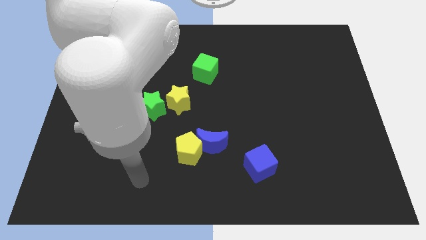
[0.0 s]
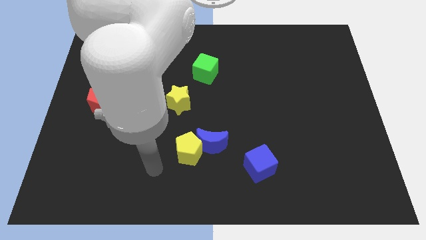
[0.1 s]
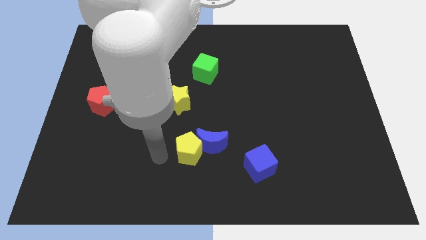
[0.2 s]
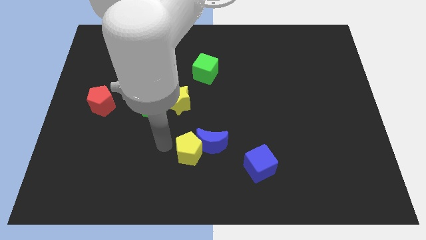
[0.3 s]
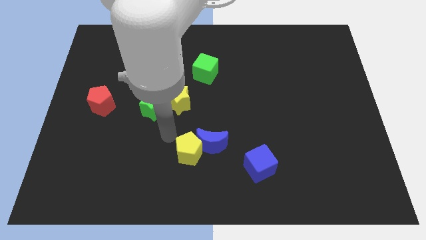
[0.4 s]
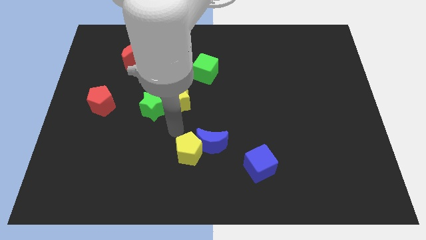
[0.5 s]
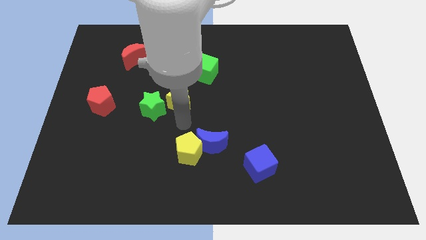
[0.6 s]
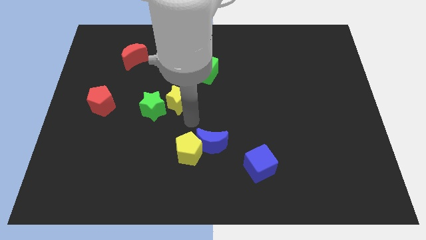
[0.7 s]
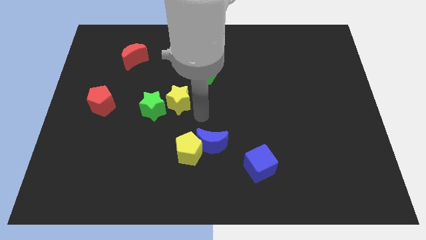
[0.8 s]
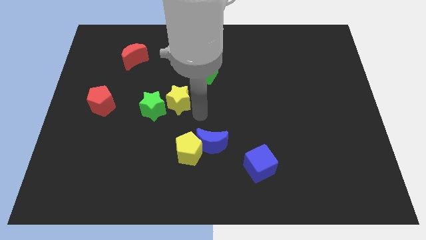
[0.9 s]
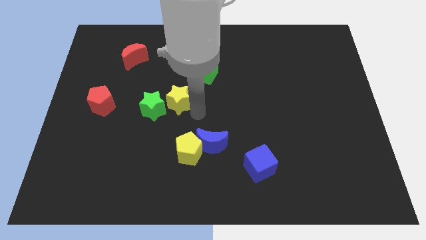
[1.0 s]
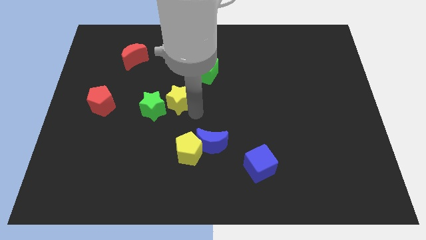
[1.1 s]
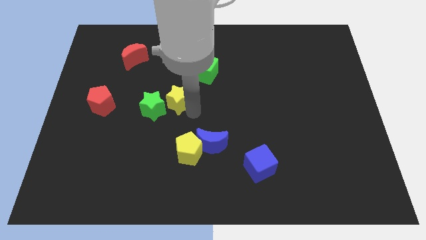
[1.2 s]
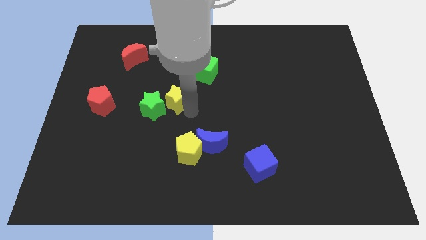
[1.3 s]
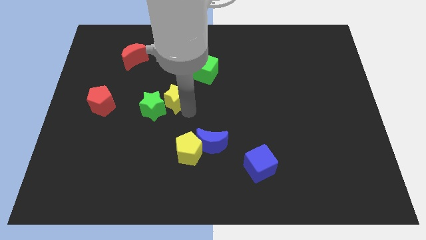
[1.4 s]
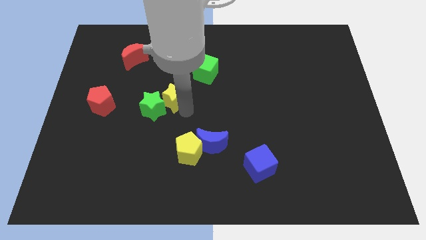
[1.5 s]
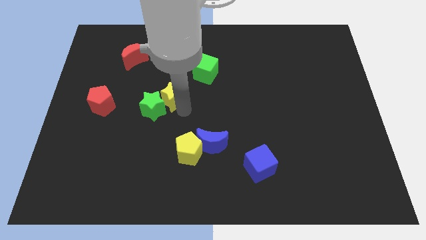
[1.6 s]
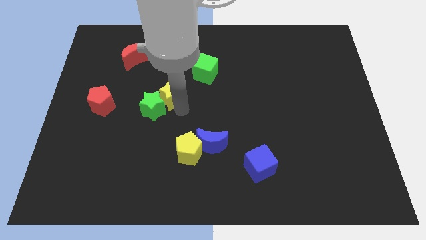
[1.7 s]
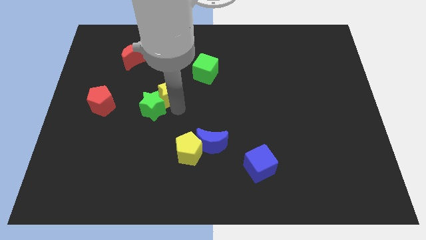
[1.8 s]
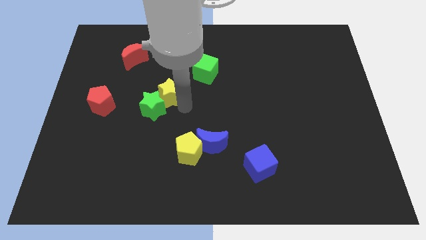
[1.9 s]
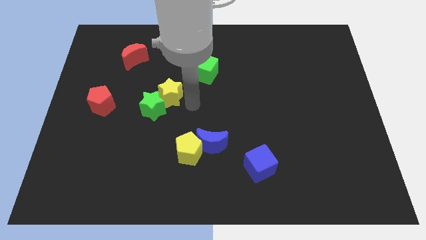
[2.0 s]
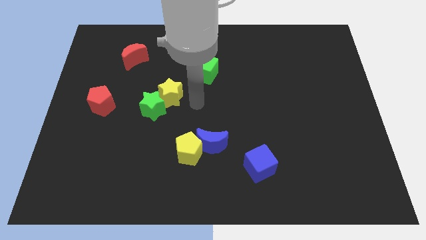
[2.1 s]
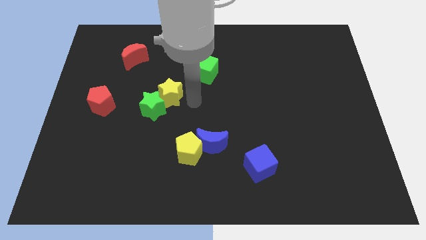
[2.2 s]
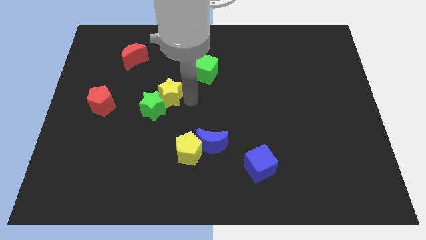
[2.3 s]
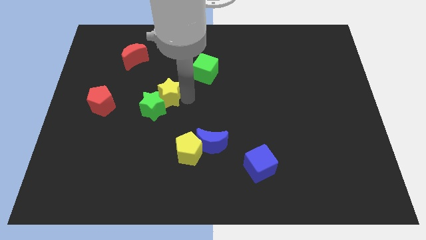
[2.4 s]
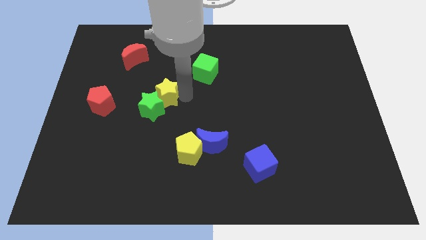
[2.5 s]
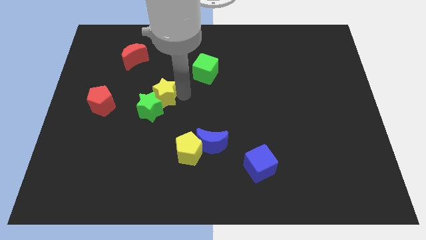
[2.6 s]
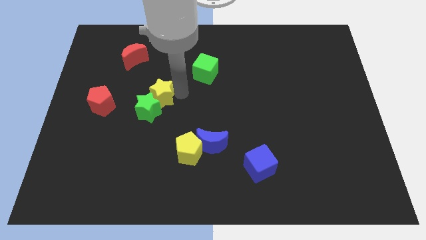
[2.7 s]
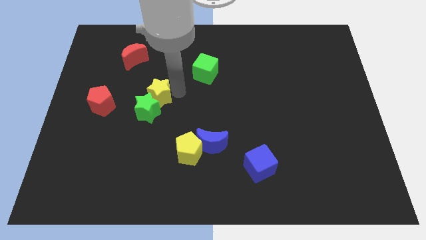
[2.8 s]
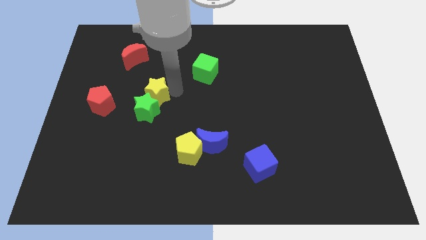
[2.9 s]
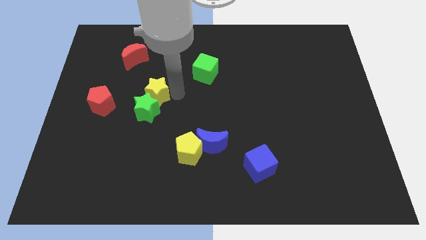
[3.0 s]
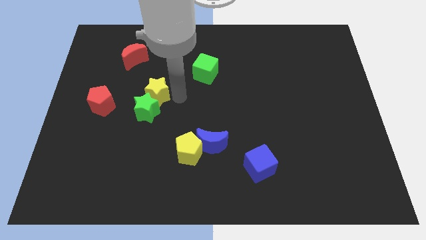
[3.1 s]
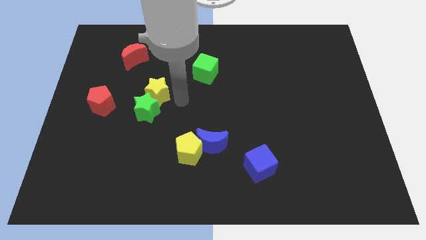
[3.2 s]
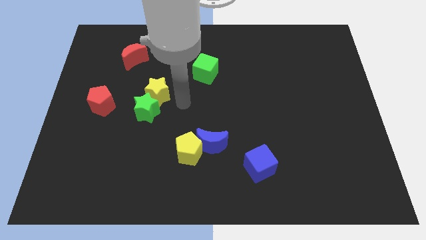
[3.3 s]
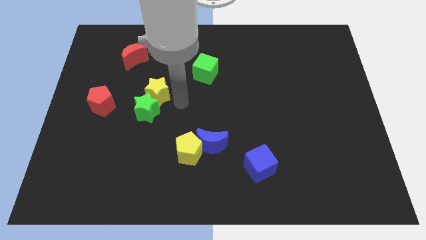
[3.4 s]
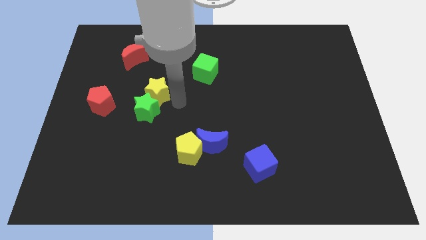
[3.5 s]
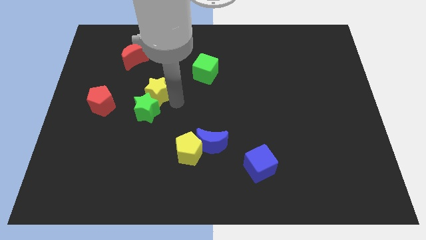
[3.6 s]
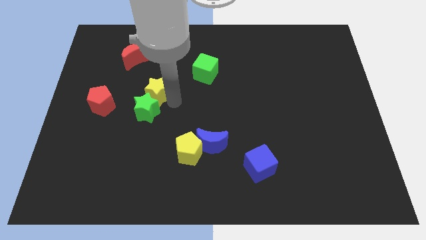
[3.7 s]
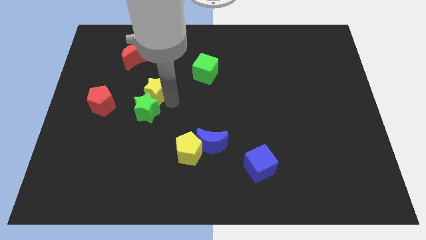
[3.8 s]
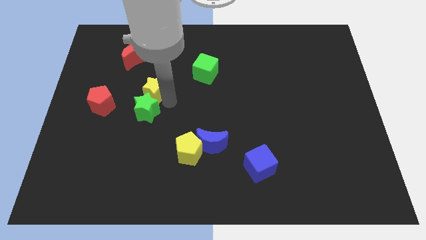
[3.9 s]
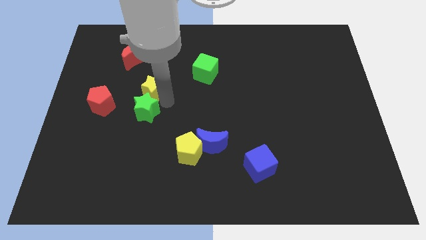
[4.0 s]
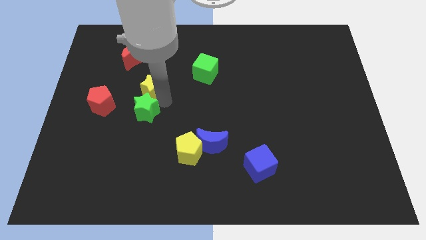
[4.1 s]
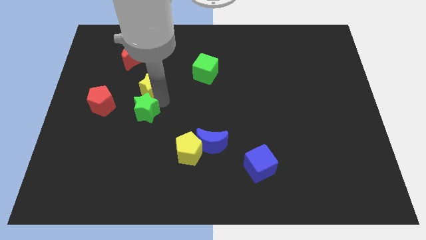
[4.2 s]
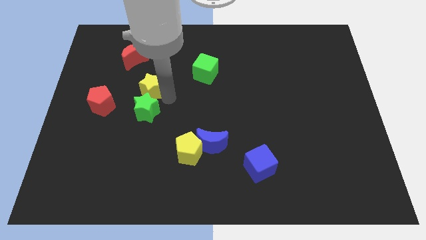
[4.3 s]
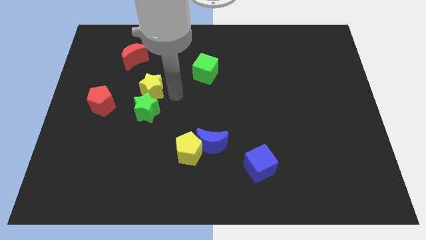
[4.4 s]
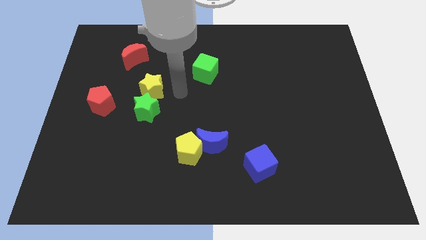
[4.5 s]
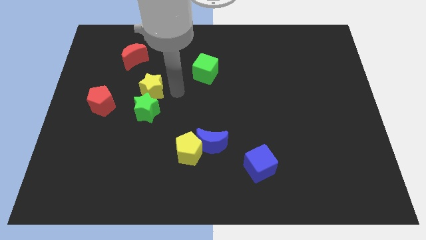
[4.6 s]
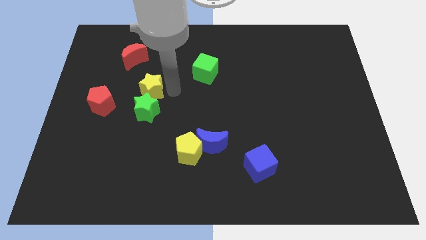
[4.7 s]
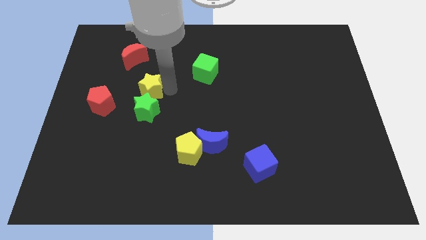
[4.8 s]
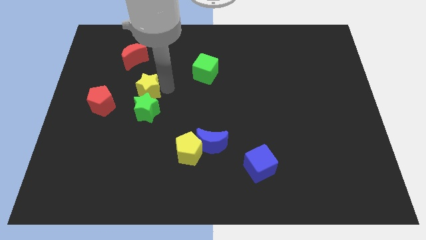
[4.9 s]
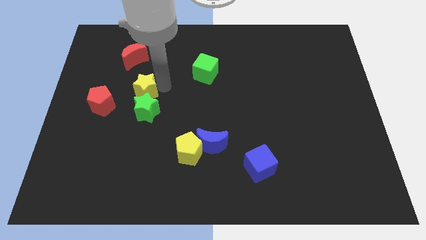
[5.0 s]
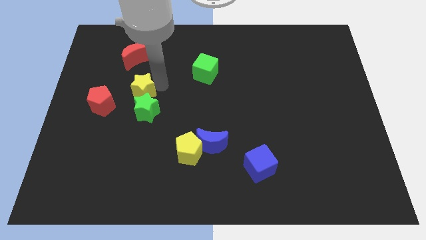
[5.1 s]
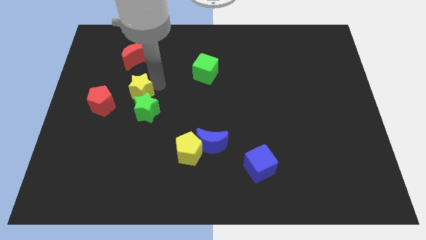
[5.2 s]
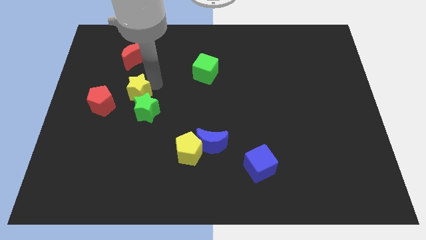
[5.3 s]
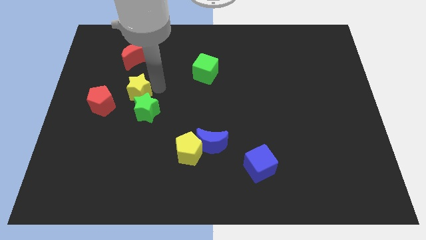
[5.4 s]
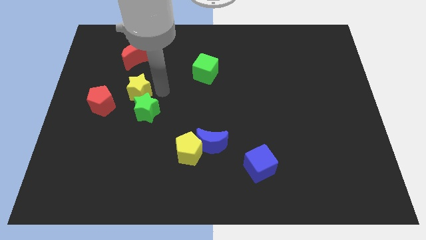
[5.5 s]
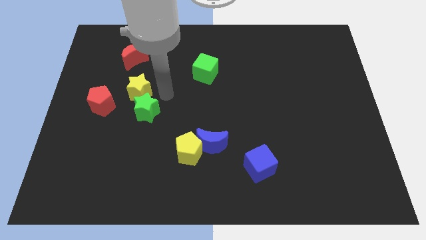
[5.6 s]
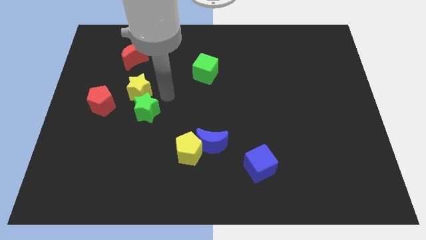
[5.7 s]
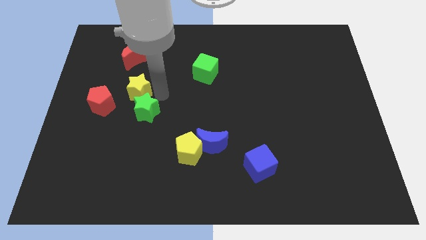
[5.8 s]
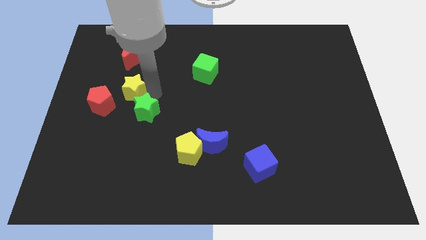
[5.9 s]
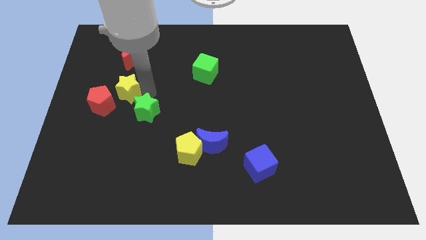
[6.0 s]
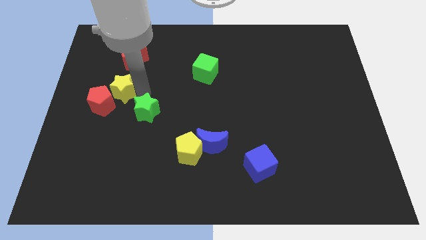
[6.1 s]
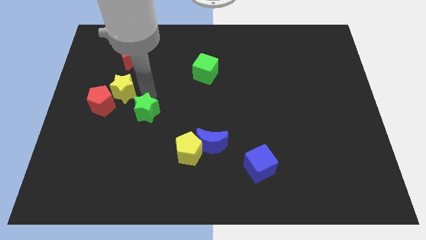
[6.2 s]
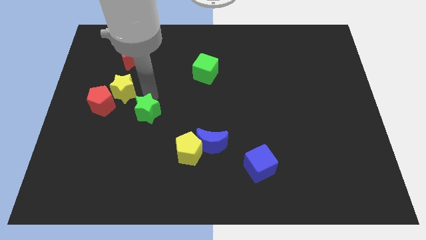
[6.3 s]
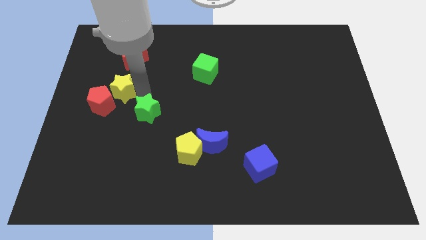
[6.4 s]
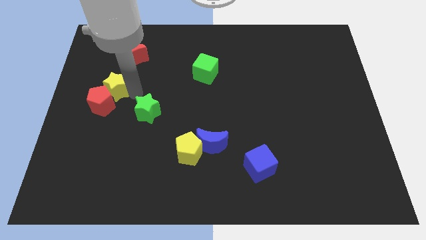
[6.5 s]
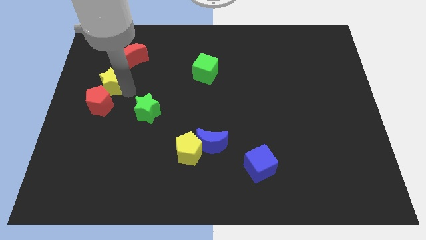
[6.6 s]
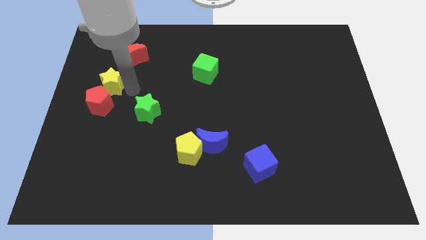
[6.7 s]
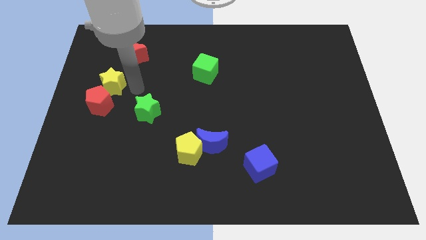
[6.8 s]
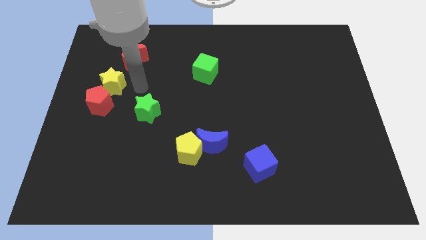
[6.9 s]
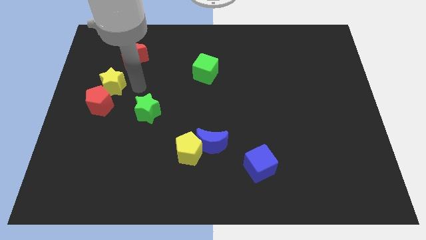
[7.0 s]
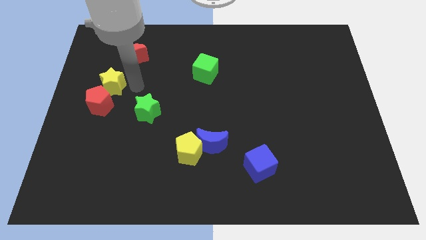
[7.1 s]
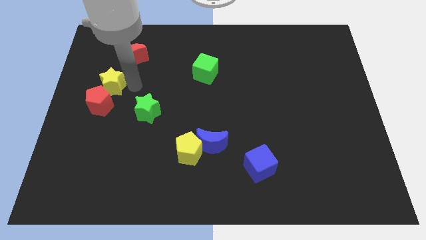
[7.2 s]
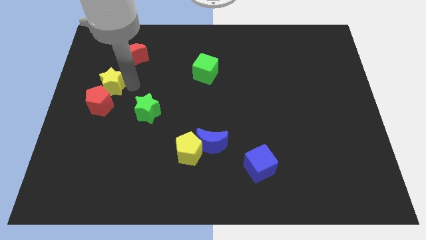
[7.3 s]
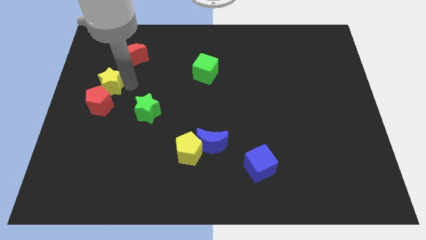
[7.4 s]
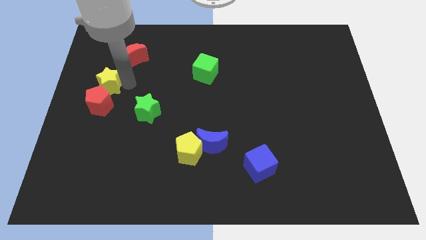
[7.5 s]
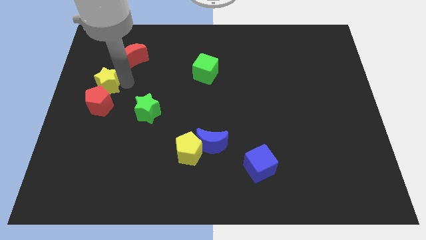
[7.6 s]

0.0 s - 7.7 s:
slide the yellow star to the left side of the board
